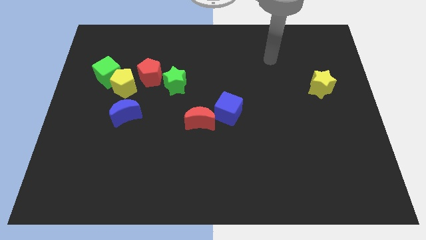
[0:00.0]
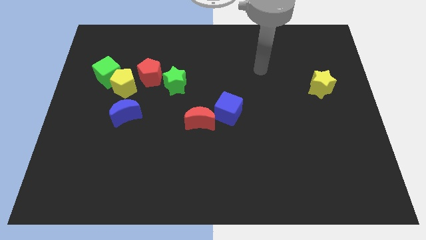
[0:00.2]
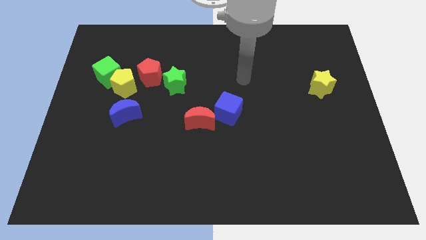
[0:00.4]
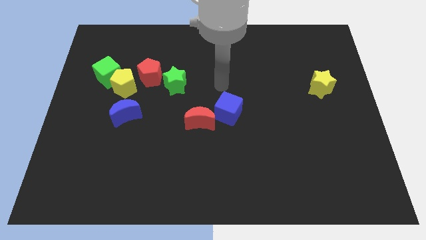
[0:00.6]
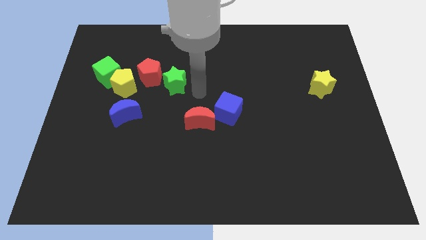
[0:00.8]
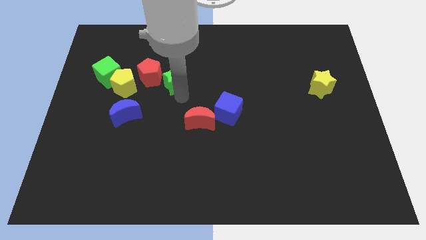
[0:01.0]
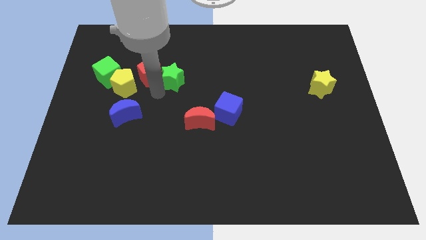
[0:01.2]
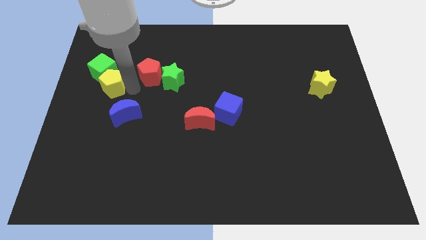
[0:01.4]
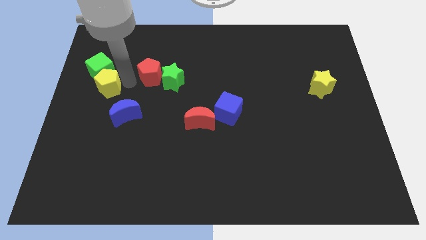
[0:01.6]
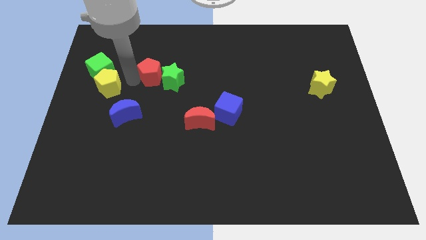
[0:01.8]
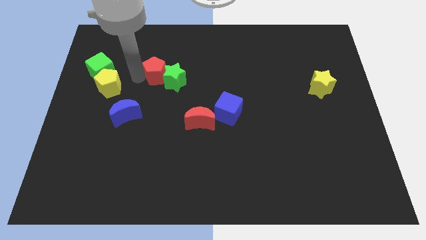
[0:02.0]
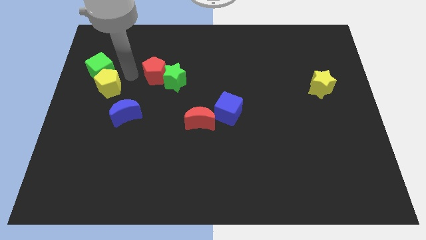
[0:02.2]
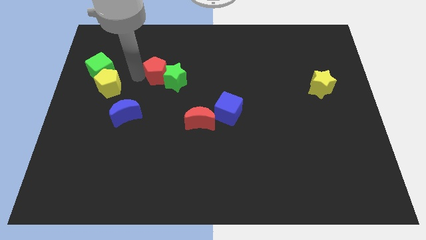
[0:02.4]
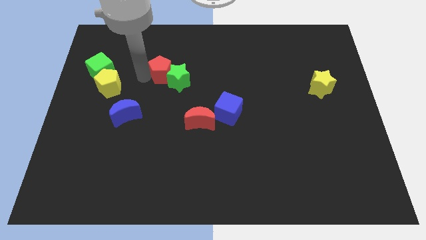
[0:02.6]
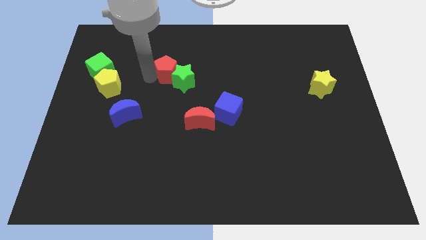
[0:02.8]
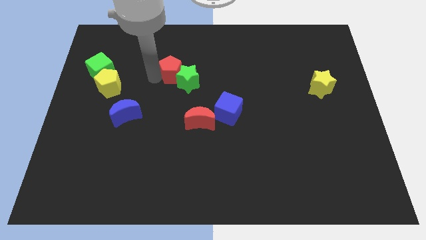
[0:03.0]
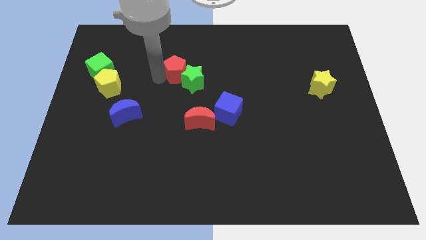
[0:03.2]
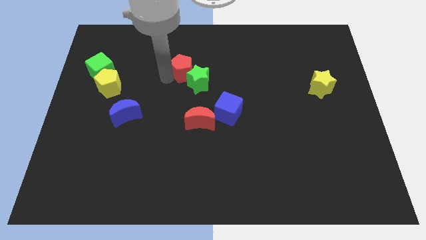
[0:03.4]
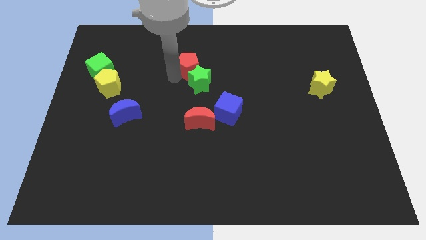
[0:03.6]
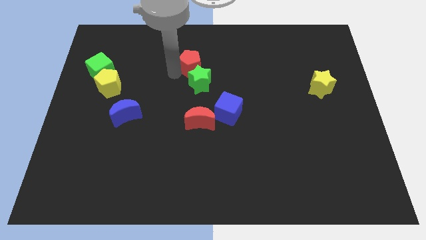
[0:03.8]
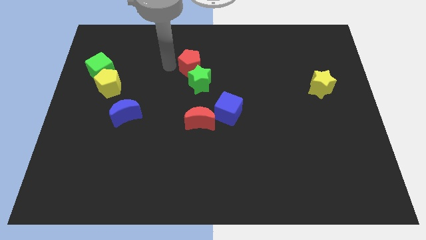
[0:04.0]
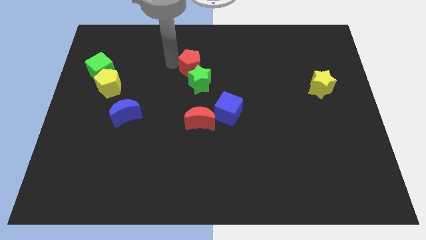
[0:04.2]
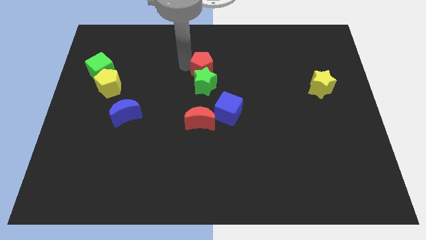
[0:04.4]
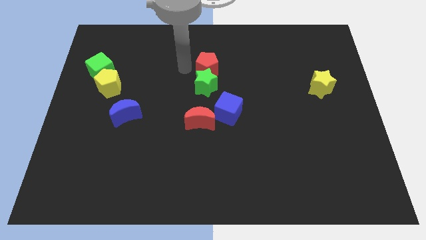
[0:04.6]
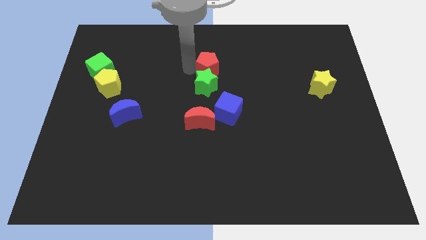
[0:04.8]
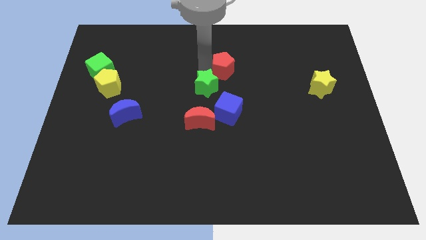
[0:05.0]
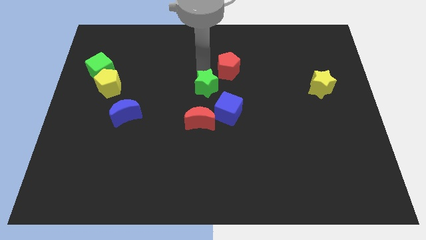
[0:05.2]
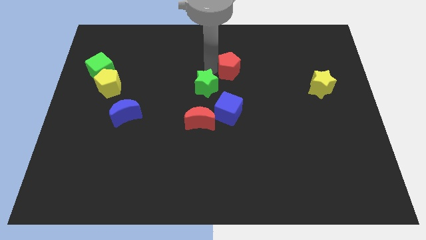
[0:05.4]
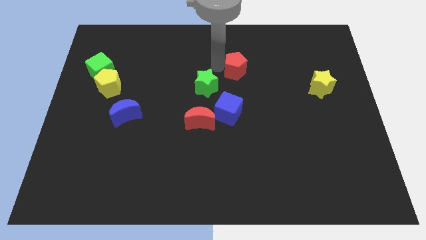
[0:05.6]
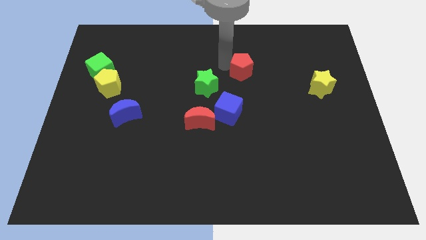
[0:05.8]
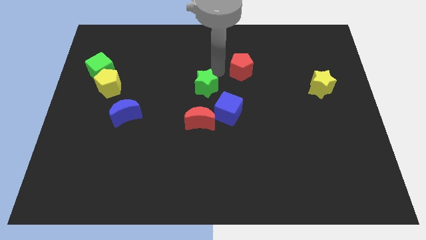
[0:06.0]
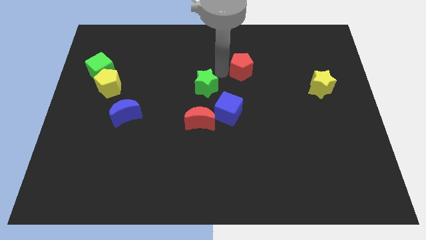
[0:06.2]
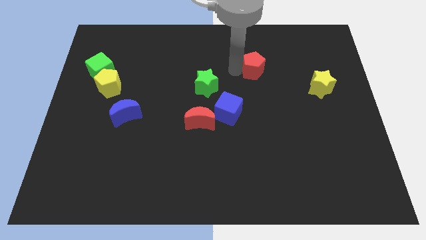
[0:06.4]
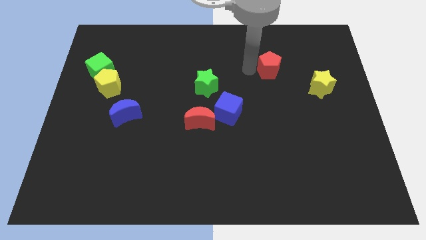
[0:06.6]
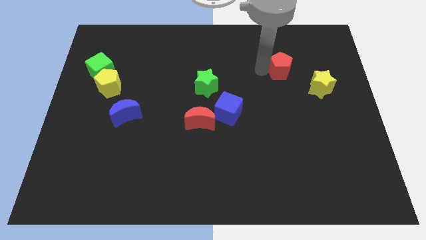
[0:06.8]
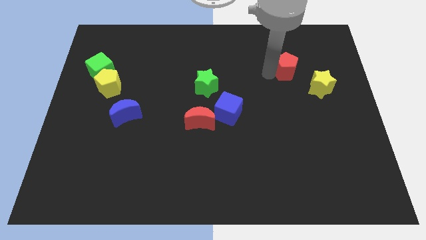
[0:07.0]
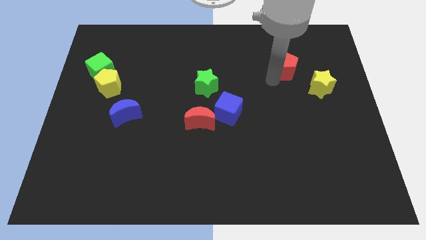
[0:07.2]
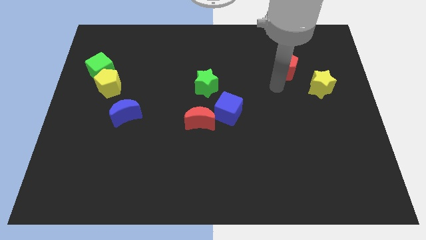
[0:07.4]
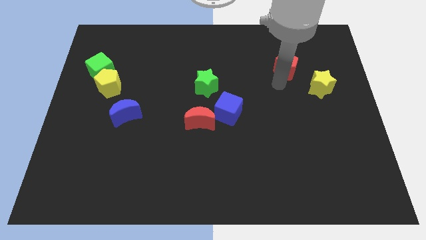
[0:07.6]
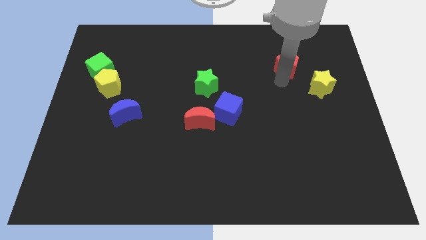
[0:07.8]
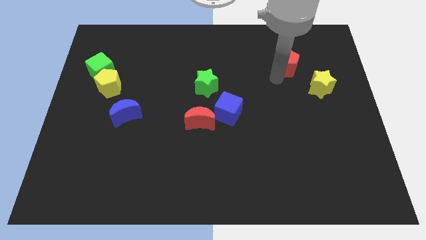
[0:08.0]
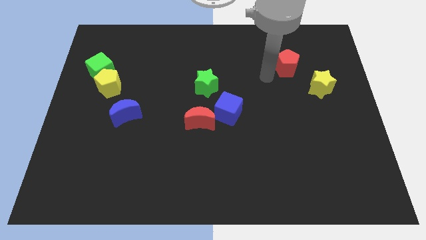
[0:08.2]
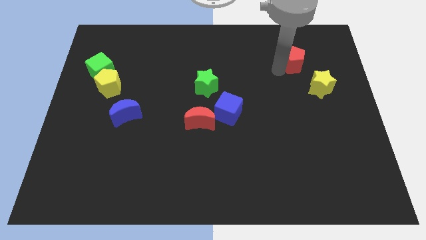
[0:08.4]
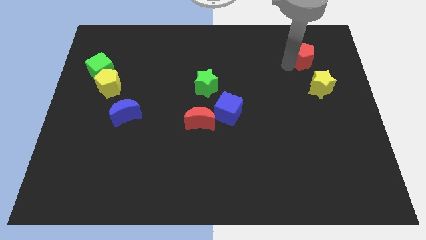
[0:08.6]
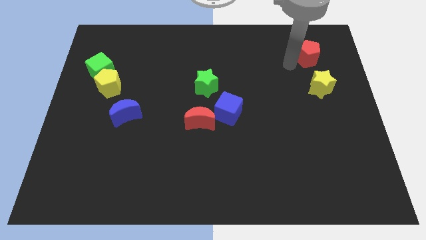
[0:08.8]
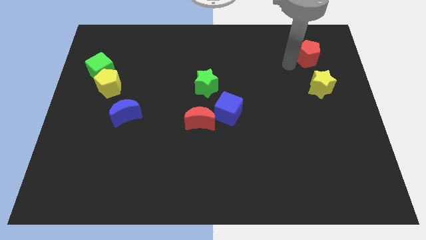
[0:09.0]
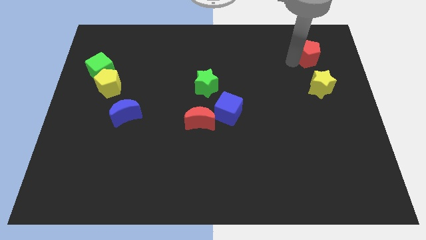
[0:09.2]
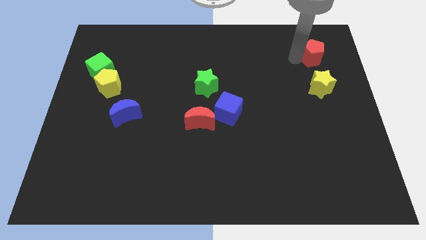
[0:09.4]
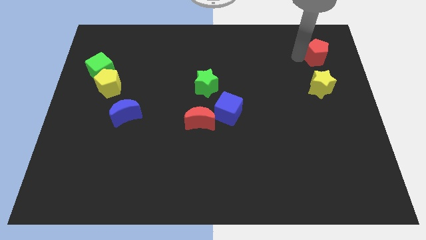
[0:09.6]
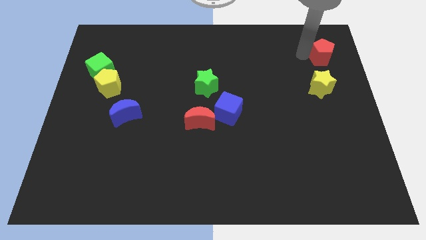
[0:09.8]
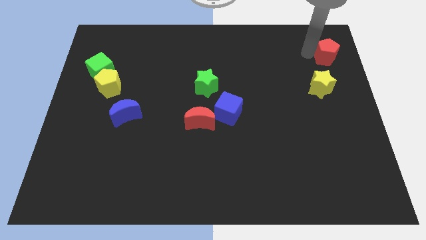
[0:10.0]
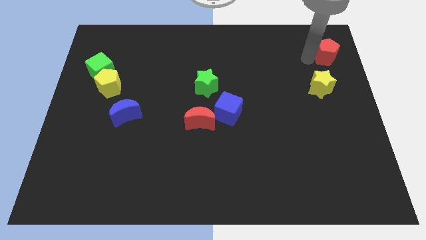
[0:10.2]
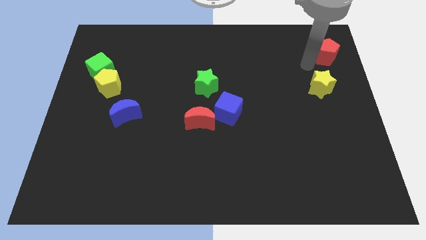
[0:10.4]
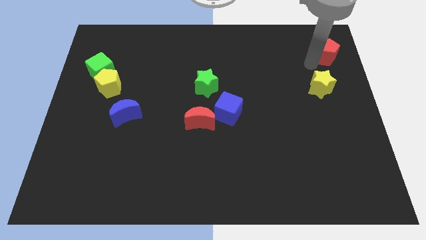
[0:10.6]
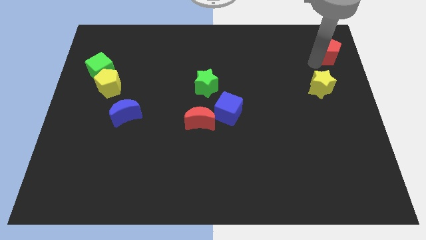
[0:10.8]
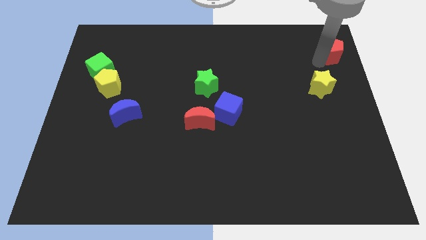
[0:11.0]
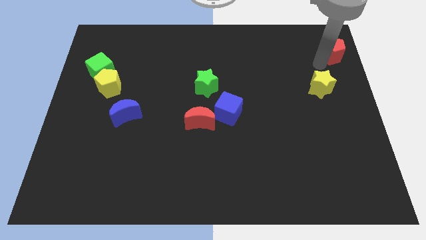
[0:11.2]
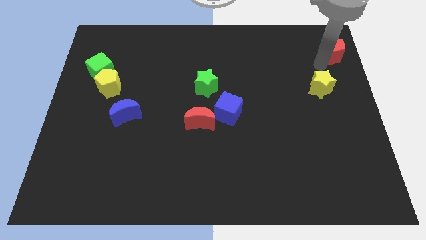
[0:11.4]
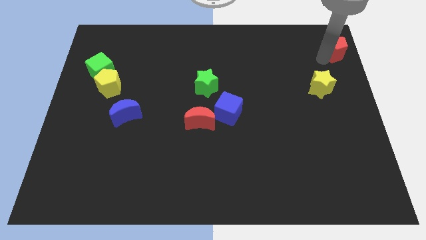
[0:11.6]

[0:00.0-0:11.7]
slide the red pentagon to the top right corner
